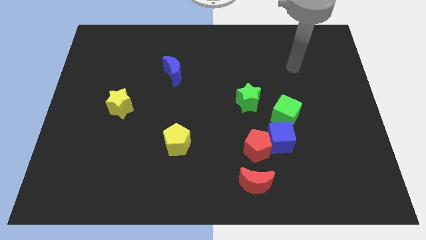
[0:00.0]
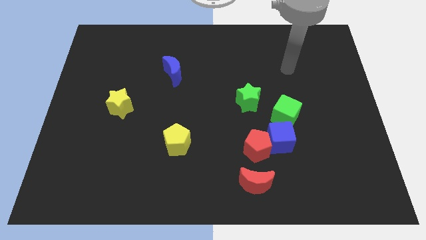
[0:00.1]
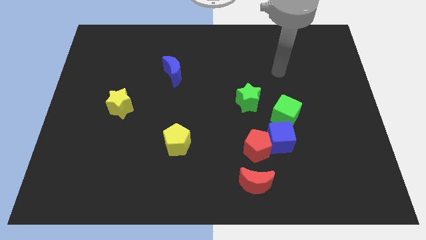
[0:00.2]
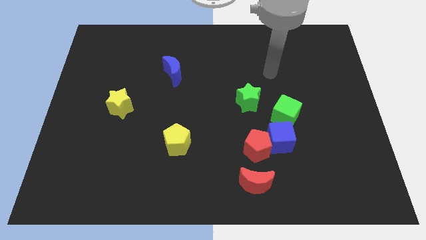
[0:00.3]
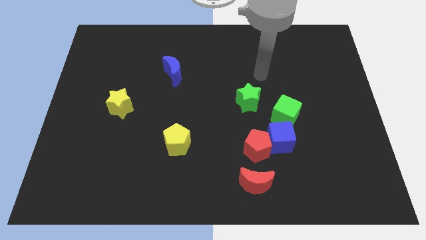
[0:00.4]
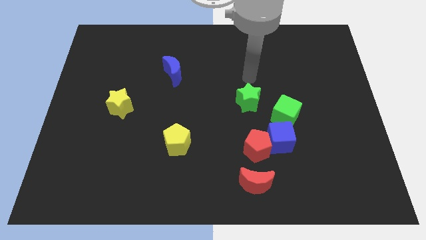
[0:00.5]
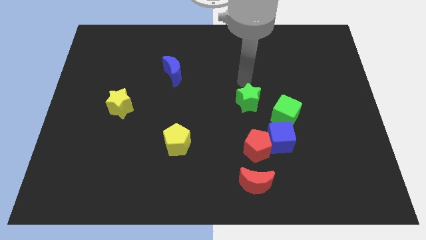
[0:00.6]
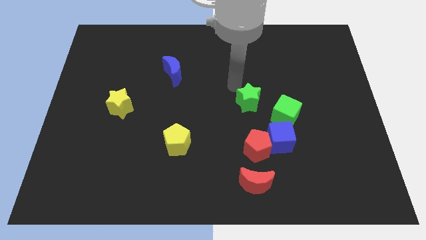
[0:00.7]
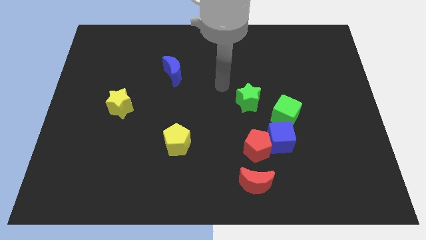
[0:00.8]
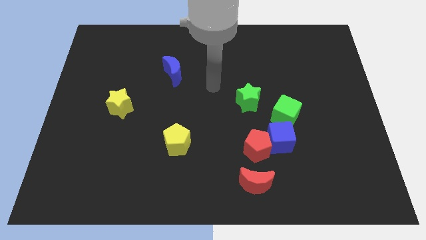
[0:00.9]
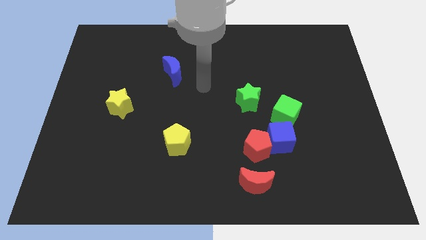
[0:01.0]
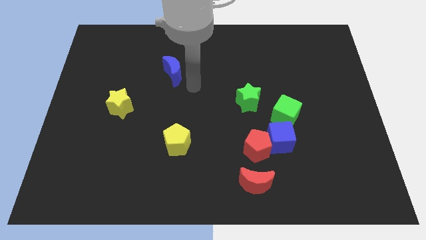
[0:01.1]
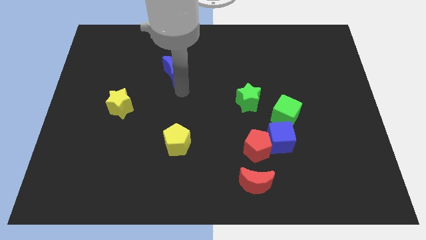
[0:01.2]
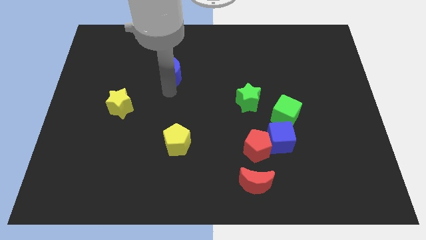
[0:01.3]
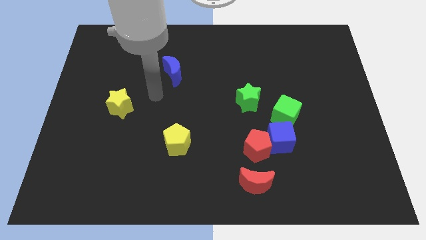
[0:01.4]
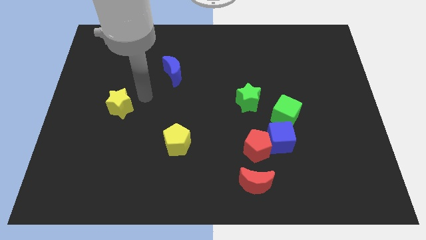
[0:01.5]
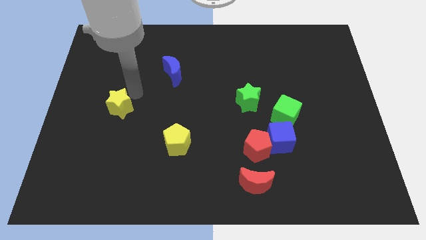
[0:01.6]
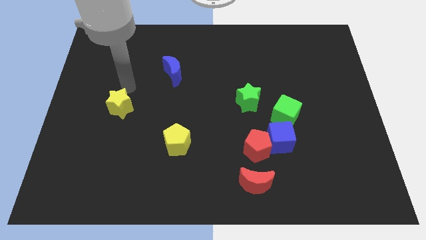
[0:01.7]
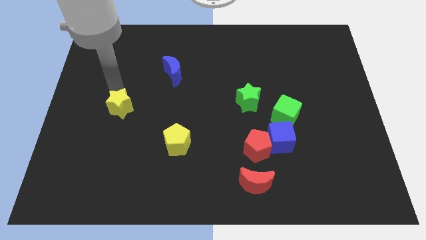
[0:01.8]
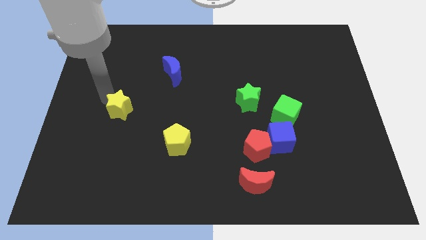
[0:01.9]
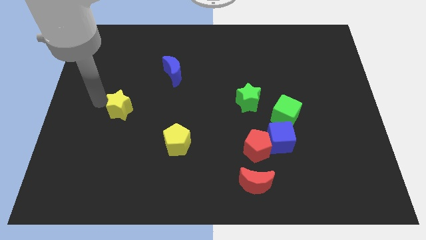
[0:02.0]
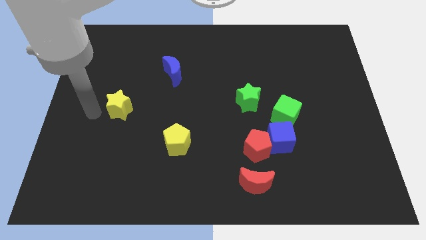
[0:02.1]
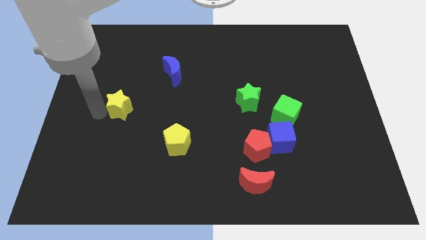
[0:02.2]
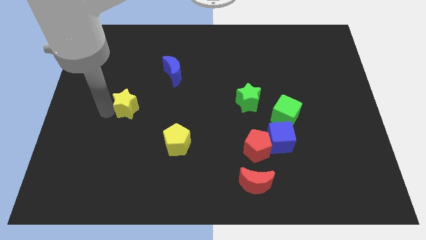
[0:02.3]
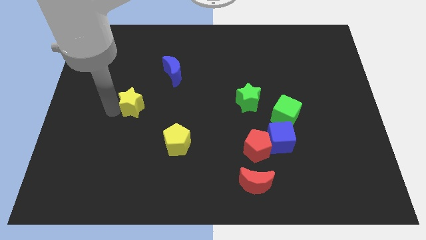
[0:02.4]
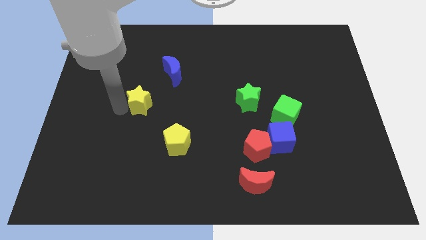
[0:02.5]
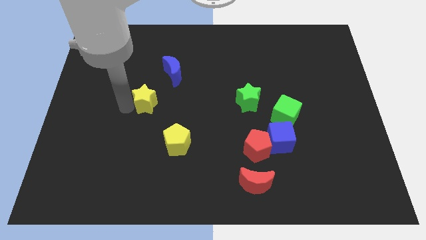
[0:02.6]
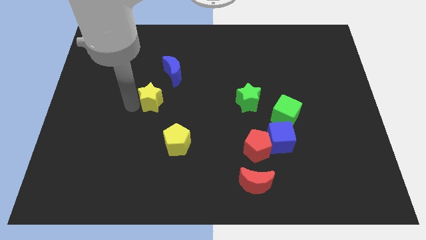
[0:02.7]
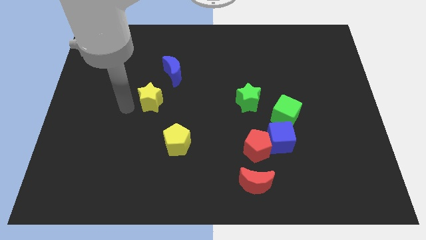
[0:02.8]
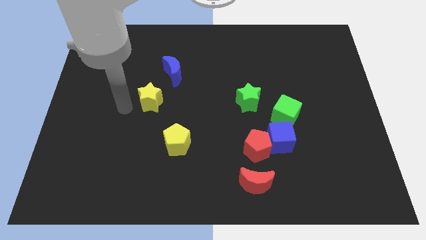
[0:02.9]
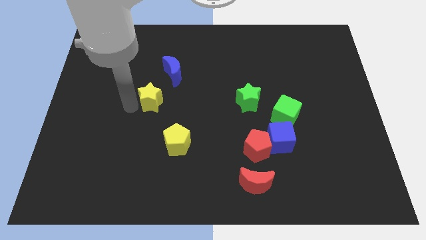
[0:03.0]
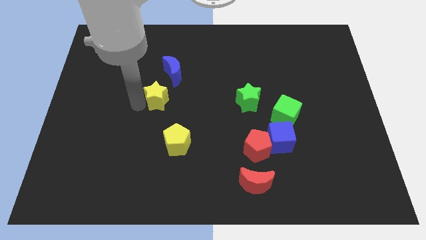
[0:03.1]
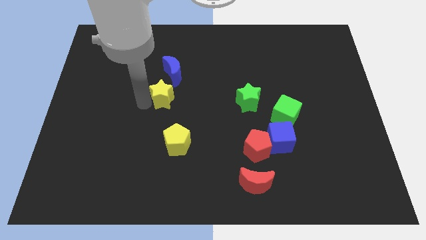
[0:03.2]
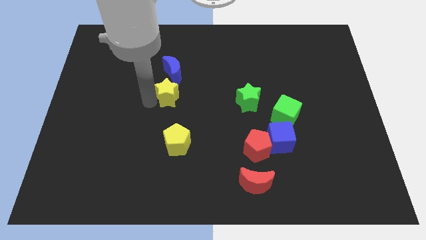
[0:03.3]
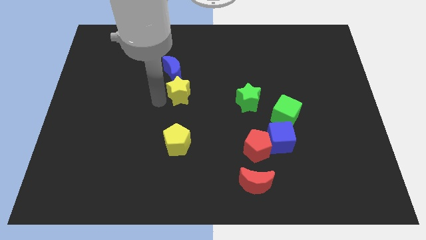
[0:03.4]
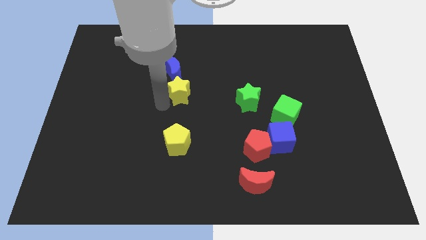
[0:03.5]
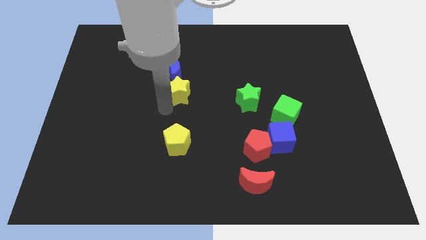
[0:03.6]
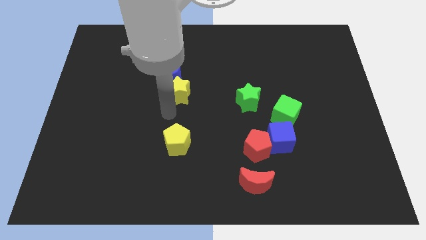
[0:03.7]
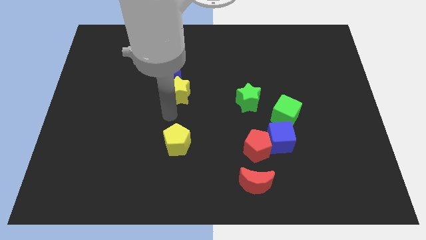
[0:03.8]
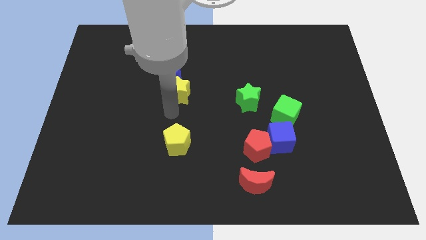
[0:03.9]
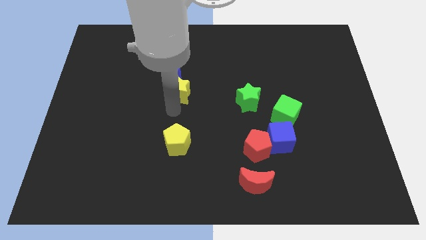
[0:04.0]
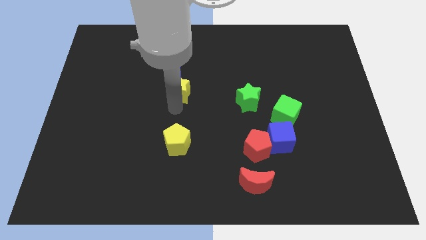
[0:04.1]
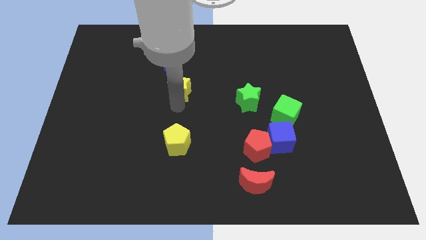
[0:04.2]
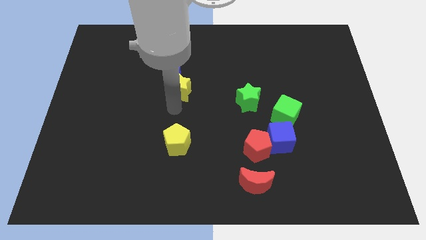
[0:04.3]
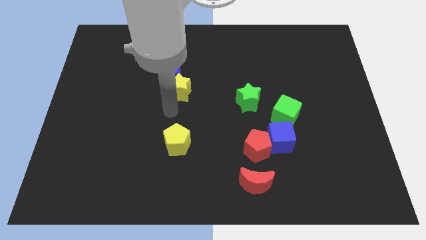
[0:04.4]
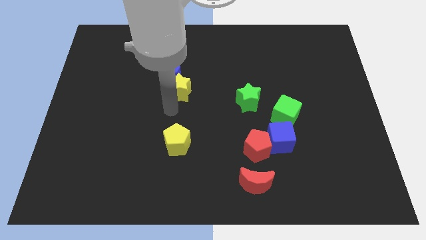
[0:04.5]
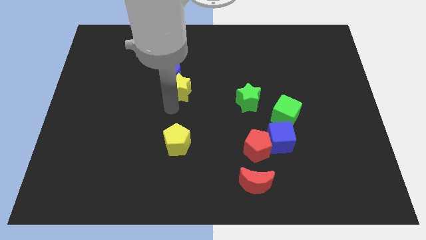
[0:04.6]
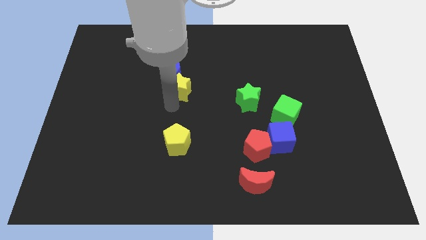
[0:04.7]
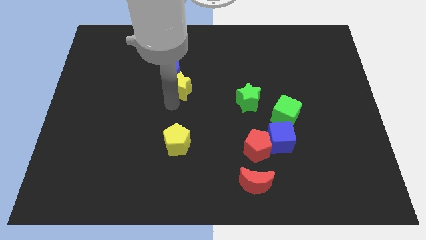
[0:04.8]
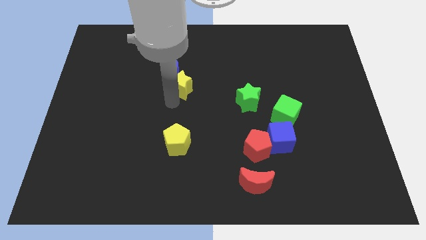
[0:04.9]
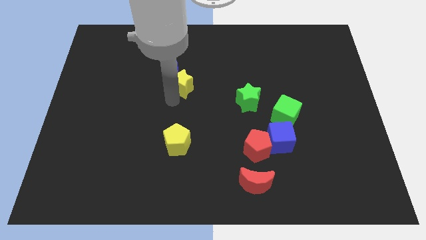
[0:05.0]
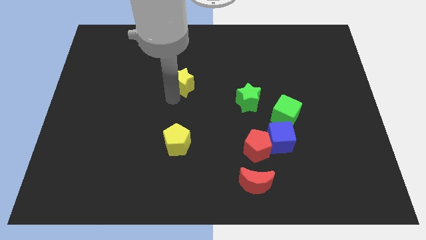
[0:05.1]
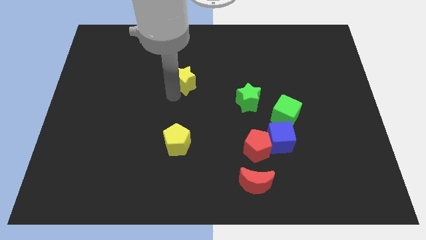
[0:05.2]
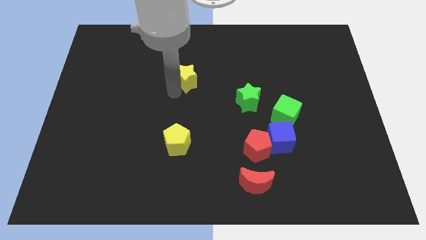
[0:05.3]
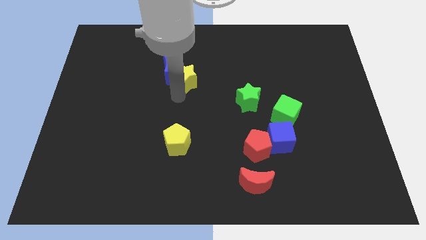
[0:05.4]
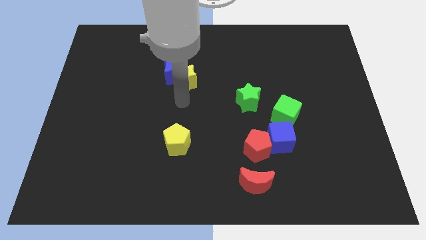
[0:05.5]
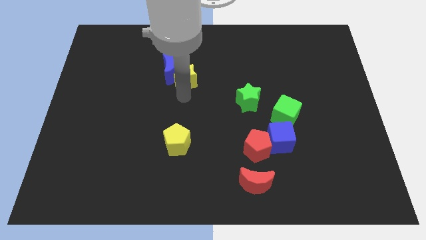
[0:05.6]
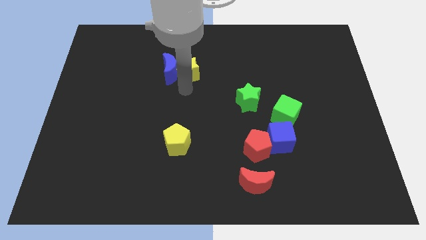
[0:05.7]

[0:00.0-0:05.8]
move the yellow star diagonally up and to the right of the blue moon

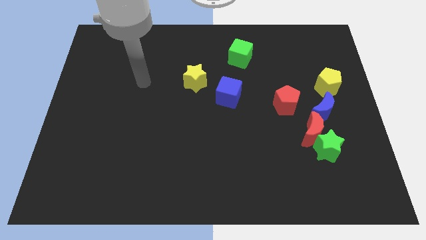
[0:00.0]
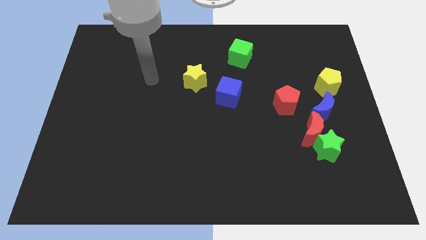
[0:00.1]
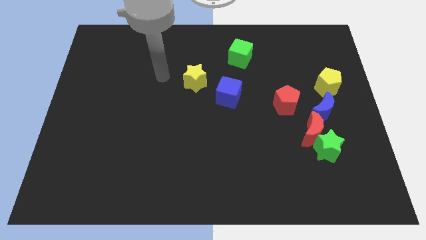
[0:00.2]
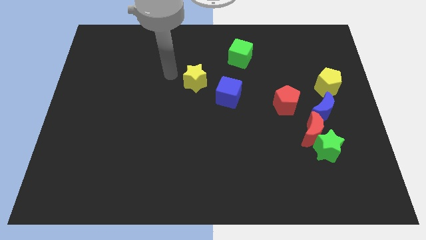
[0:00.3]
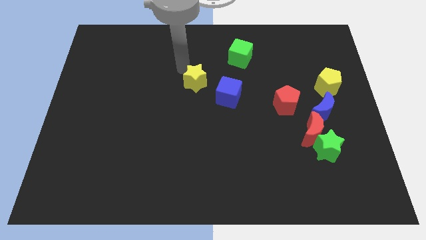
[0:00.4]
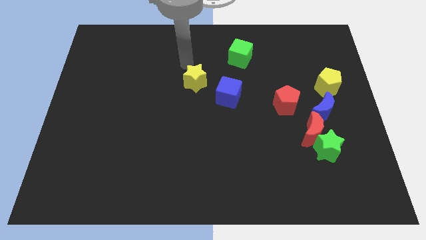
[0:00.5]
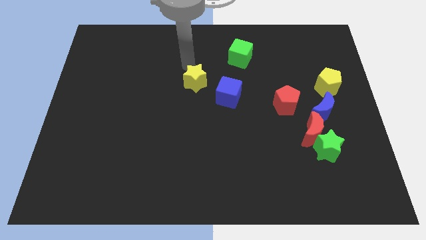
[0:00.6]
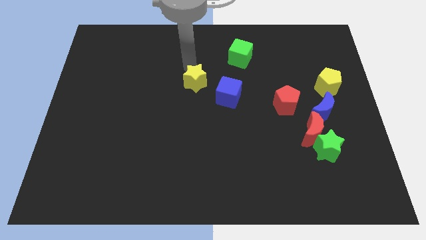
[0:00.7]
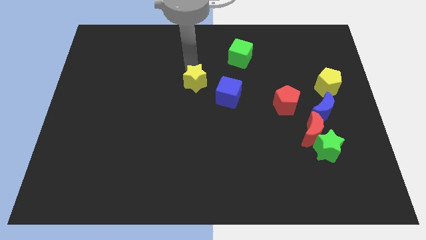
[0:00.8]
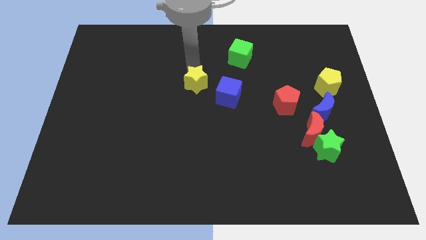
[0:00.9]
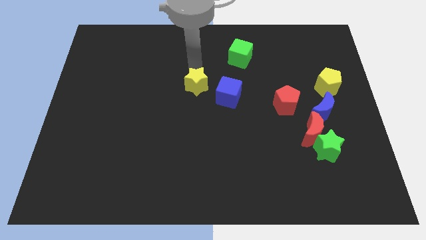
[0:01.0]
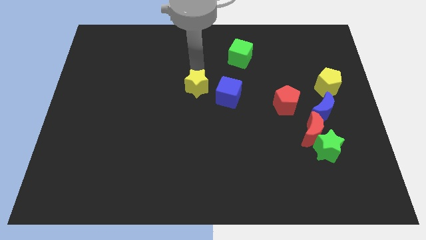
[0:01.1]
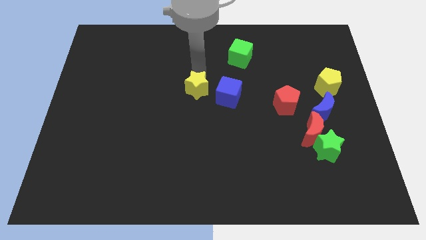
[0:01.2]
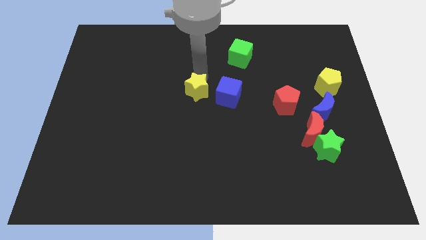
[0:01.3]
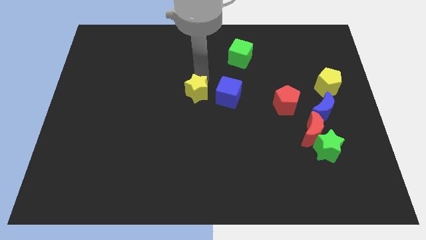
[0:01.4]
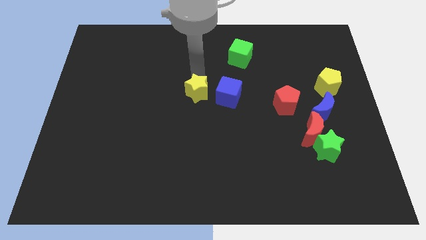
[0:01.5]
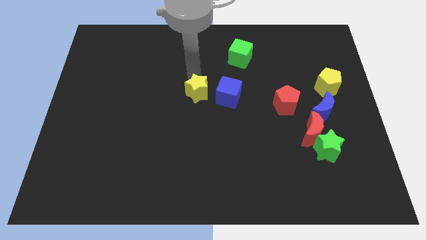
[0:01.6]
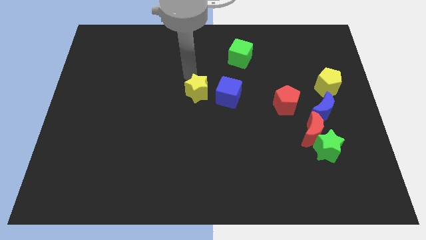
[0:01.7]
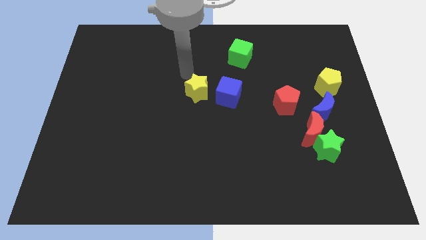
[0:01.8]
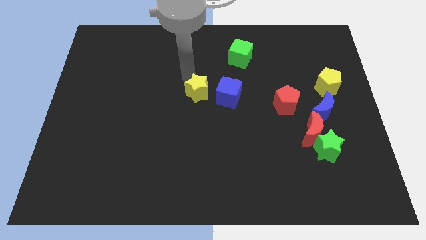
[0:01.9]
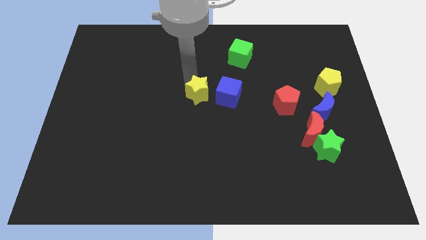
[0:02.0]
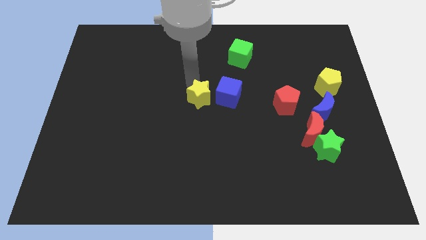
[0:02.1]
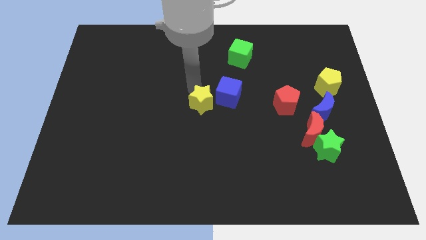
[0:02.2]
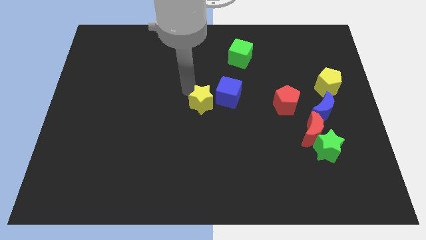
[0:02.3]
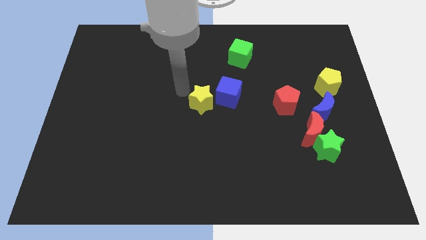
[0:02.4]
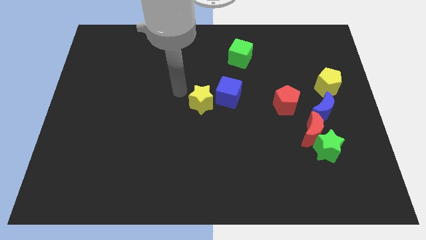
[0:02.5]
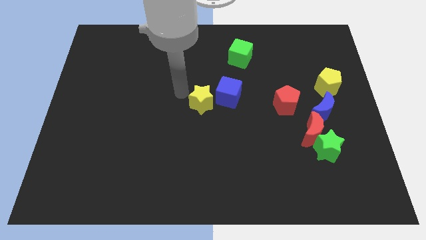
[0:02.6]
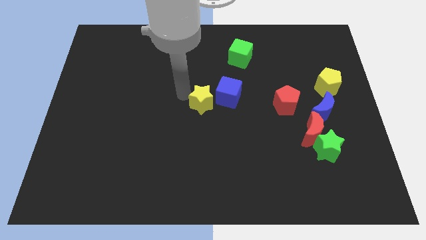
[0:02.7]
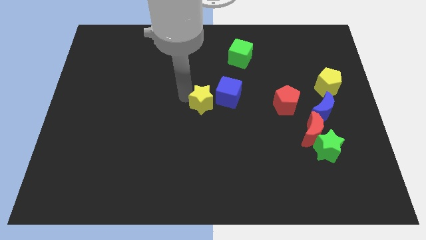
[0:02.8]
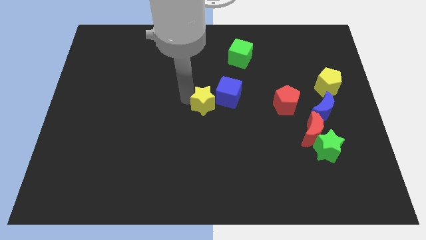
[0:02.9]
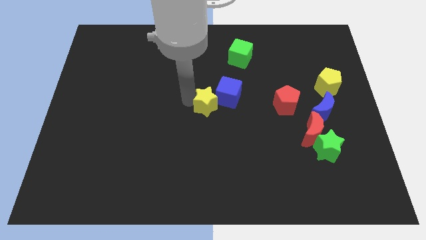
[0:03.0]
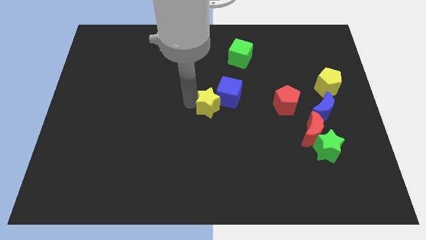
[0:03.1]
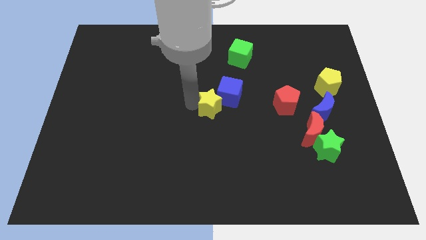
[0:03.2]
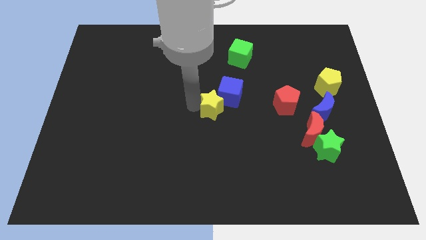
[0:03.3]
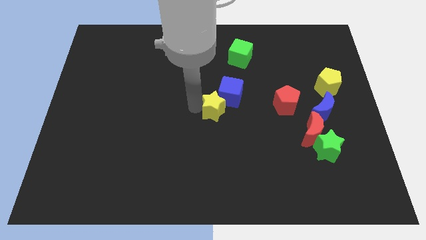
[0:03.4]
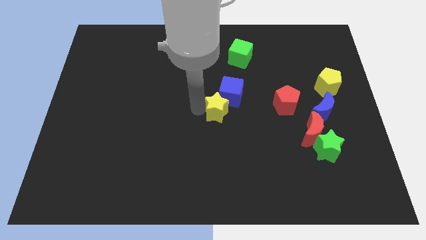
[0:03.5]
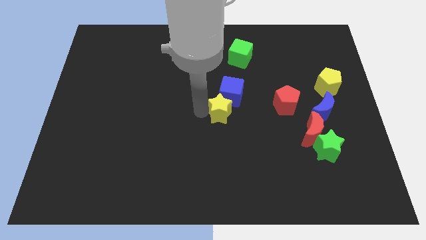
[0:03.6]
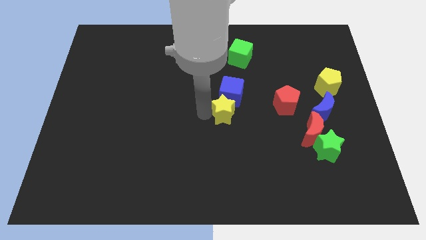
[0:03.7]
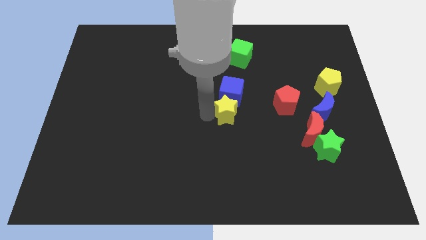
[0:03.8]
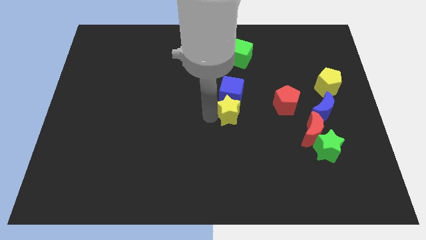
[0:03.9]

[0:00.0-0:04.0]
put the yellow star to the bottom right of the blue cube
